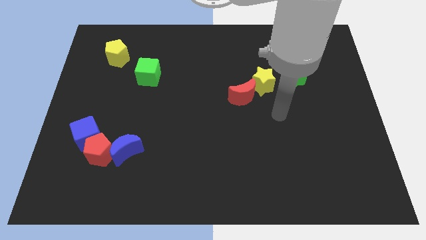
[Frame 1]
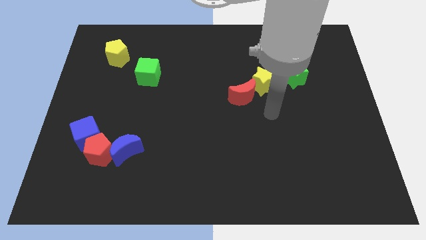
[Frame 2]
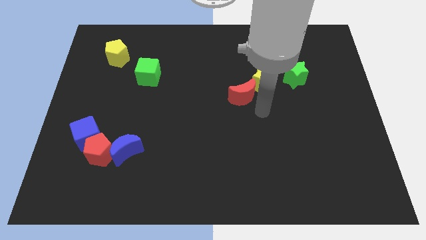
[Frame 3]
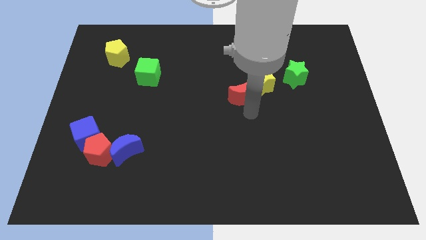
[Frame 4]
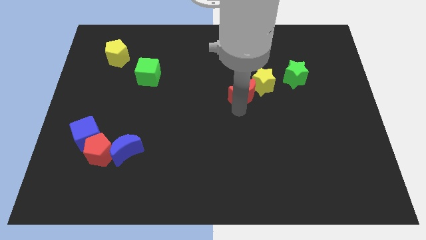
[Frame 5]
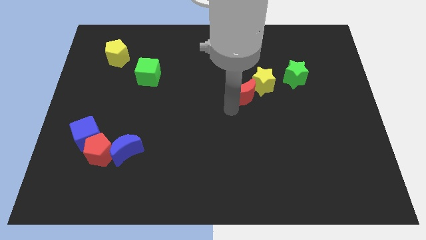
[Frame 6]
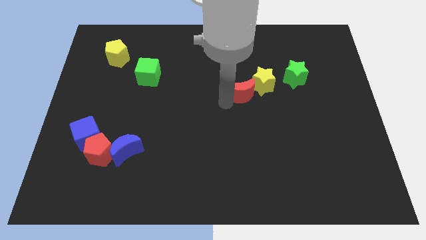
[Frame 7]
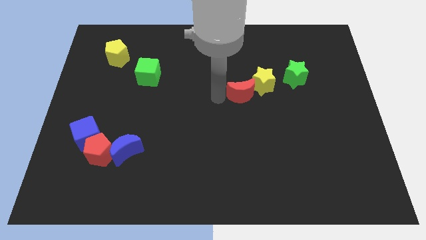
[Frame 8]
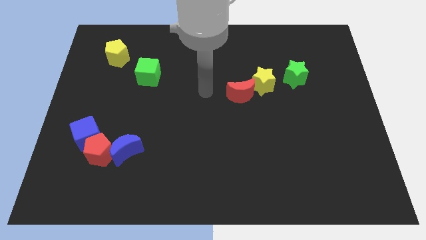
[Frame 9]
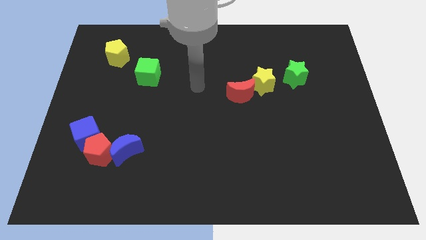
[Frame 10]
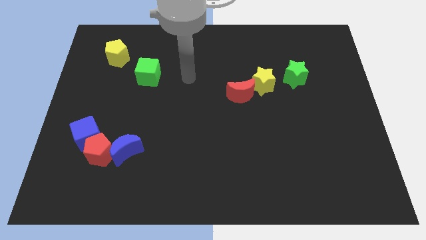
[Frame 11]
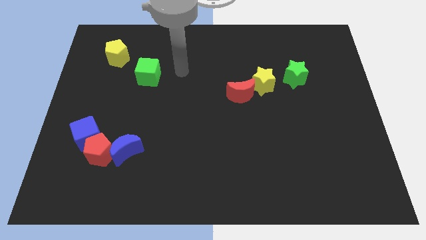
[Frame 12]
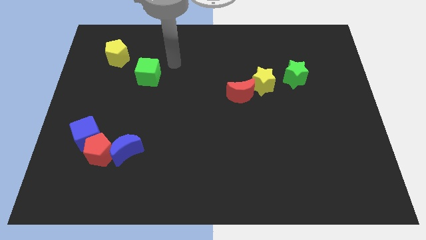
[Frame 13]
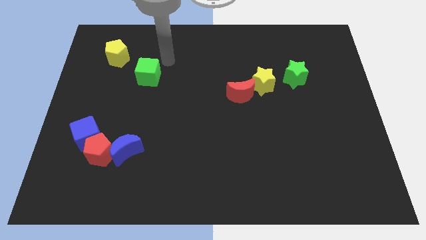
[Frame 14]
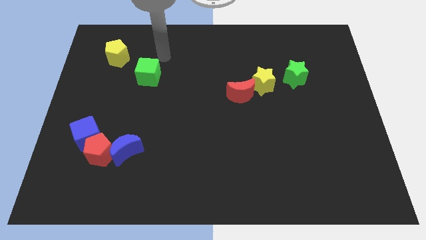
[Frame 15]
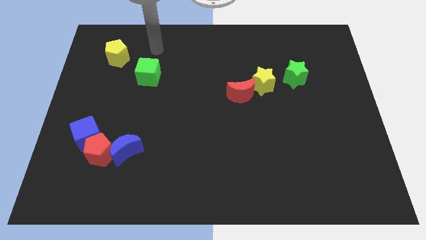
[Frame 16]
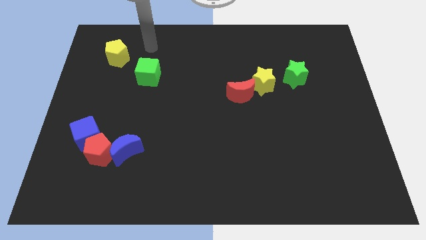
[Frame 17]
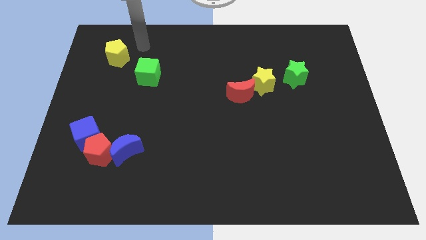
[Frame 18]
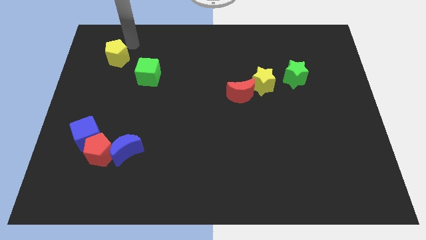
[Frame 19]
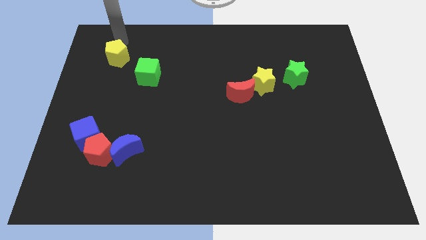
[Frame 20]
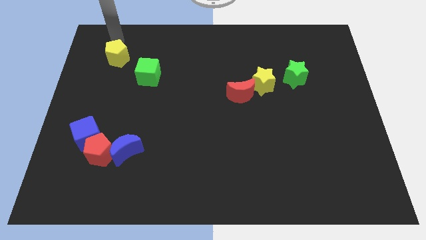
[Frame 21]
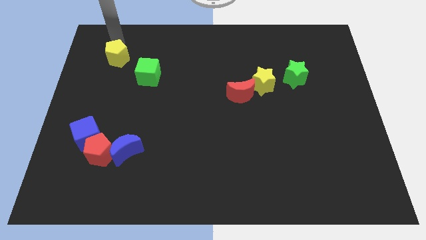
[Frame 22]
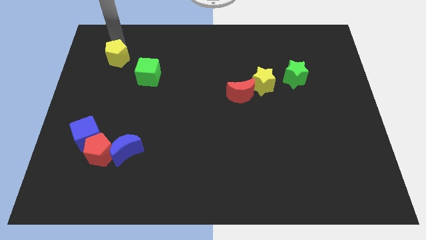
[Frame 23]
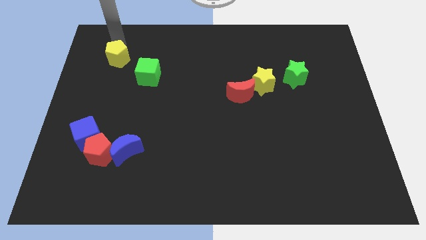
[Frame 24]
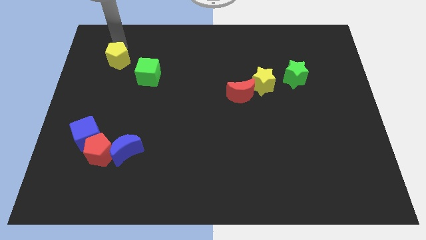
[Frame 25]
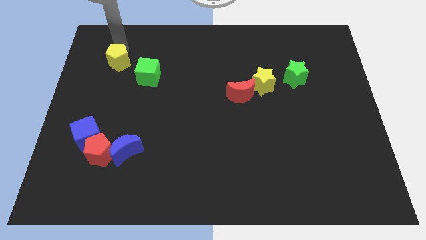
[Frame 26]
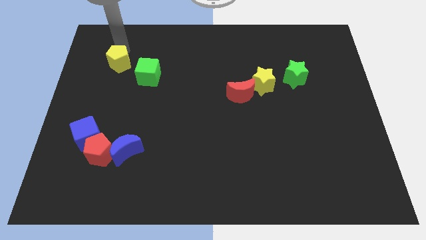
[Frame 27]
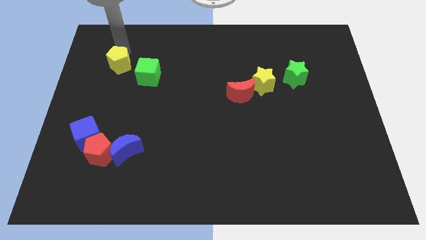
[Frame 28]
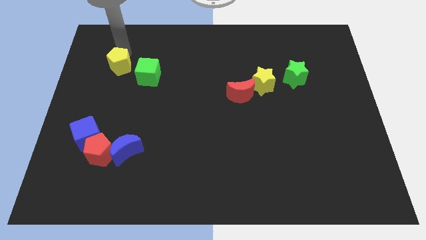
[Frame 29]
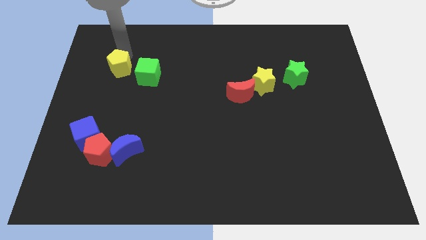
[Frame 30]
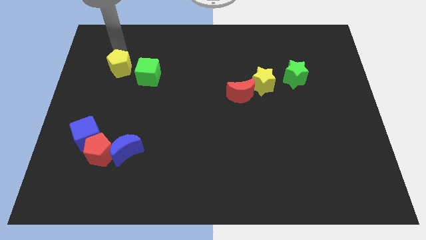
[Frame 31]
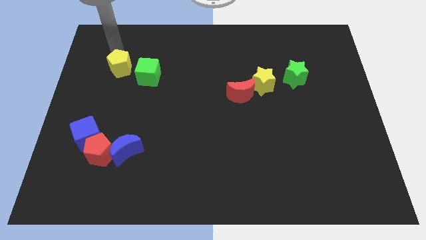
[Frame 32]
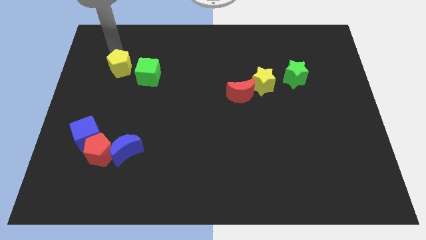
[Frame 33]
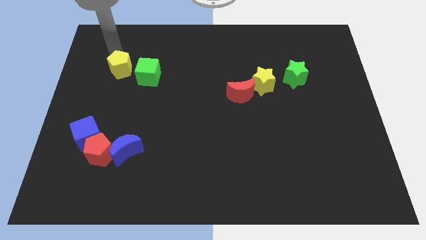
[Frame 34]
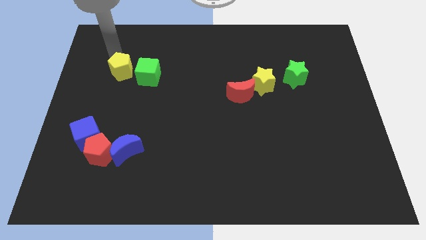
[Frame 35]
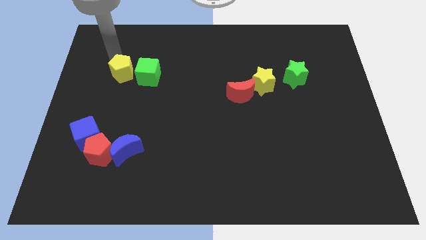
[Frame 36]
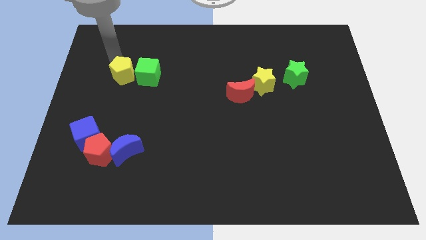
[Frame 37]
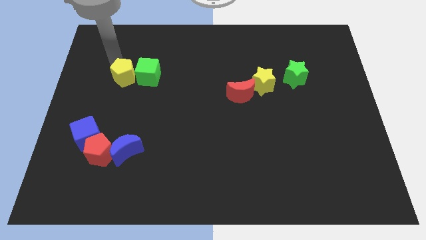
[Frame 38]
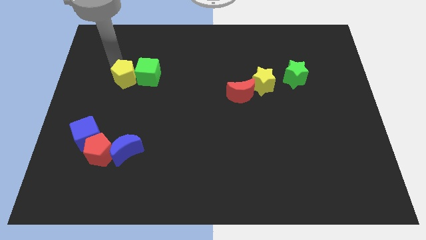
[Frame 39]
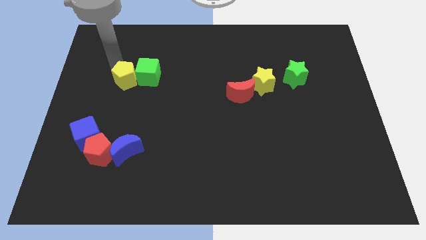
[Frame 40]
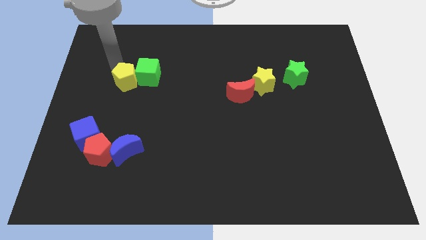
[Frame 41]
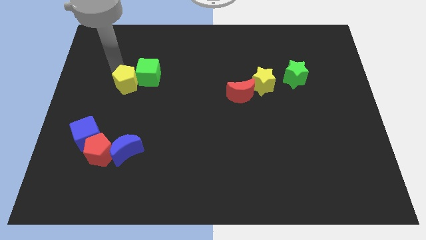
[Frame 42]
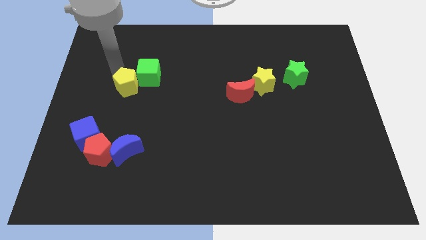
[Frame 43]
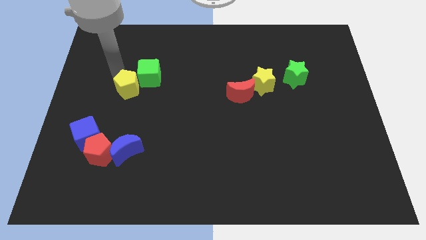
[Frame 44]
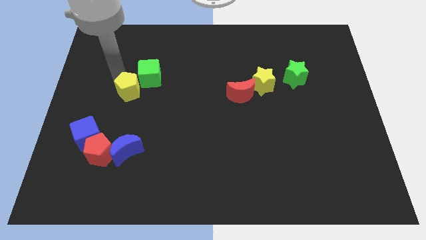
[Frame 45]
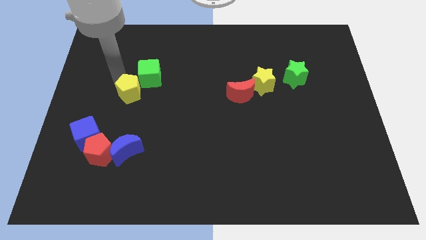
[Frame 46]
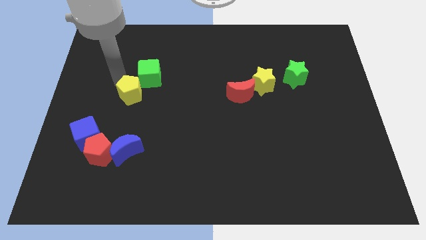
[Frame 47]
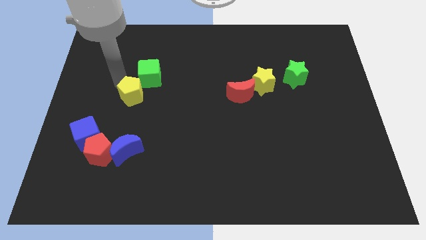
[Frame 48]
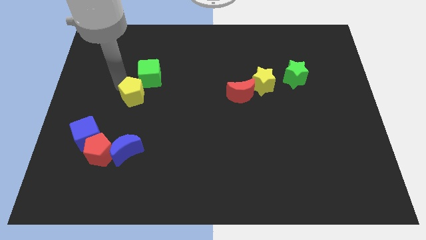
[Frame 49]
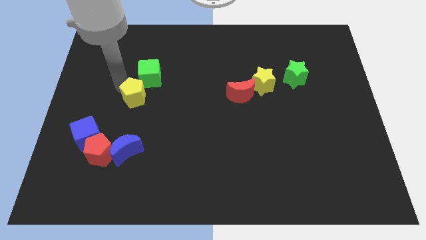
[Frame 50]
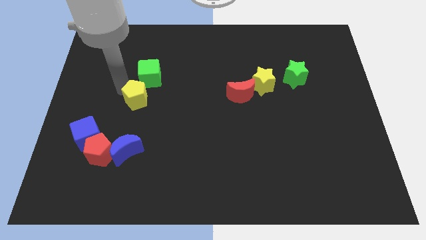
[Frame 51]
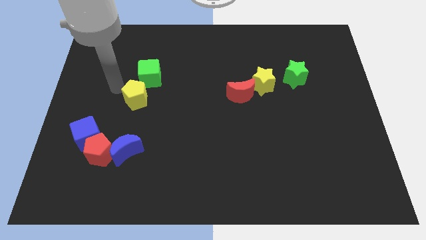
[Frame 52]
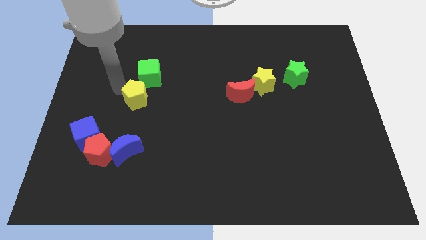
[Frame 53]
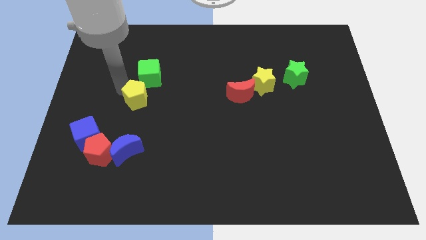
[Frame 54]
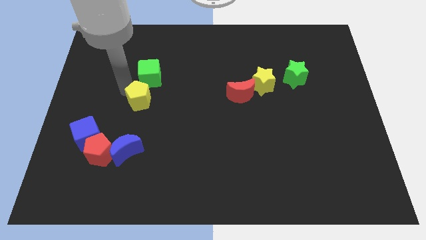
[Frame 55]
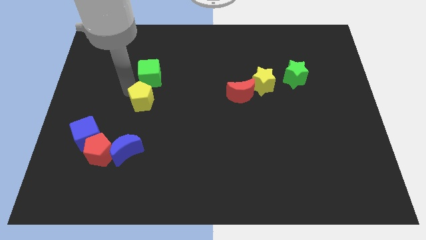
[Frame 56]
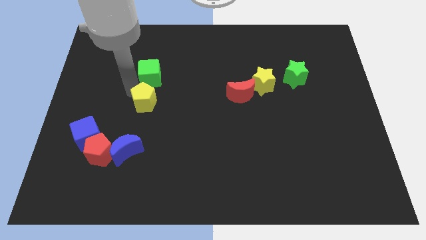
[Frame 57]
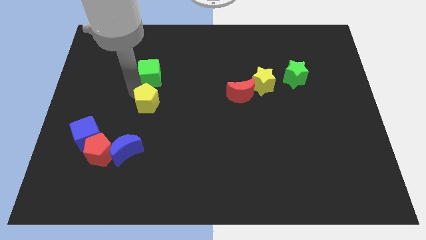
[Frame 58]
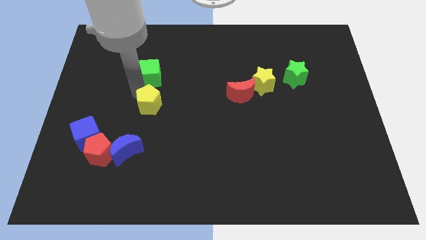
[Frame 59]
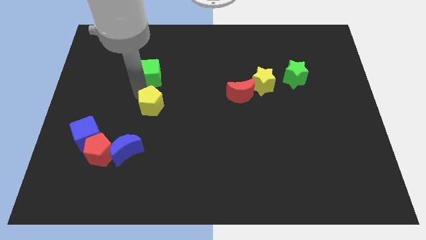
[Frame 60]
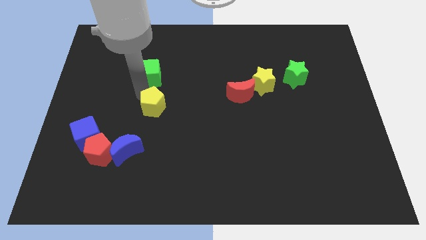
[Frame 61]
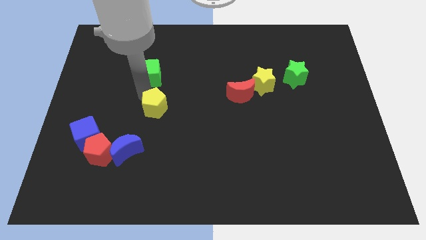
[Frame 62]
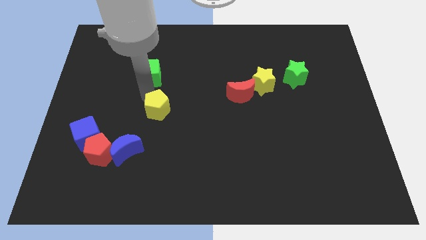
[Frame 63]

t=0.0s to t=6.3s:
slide the yellow pentagon diagonally down and right

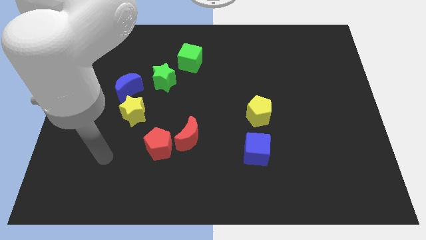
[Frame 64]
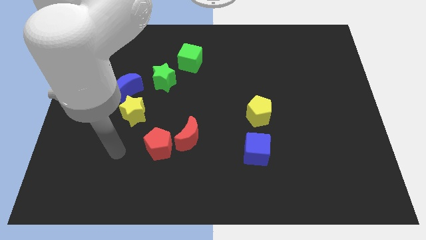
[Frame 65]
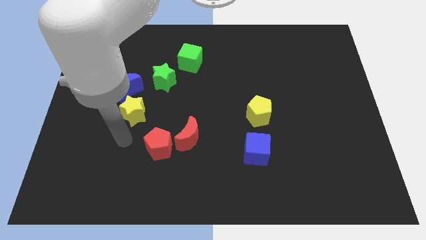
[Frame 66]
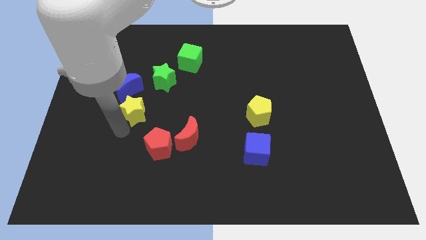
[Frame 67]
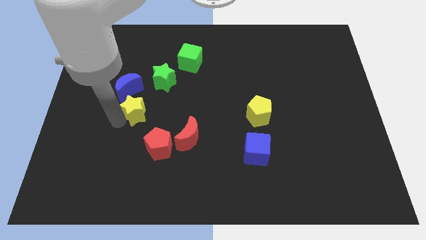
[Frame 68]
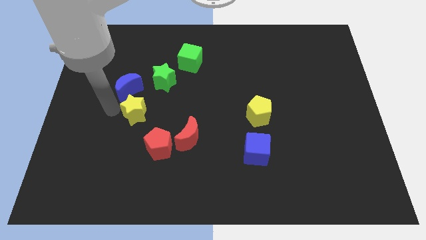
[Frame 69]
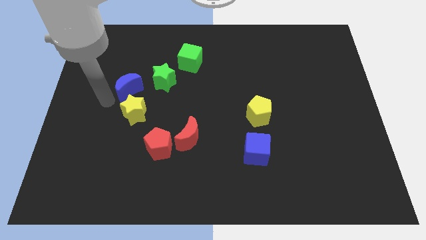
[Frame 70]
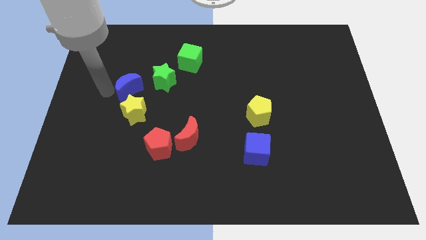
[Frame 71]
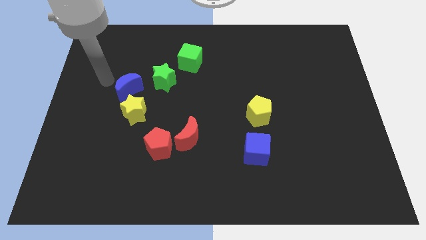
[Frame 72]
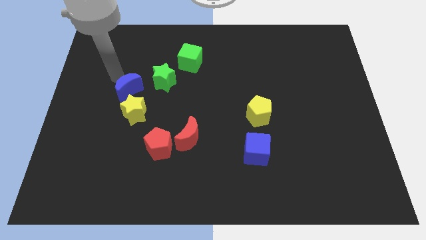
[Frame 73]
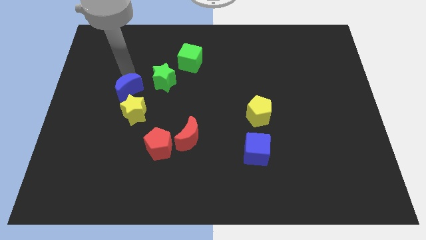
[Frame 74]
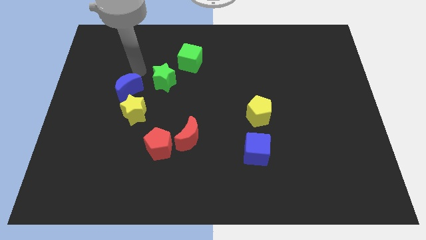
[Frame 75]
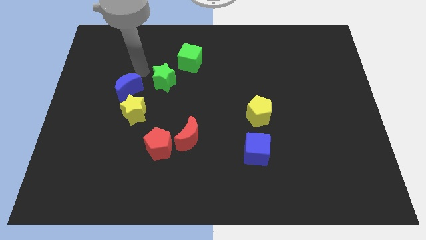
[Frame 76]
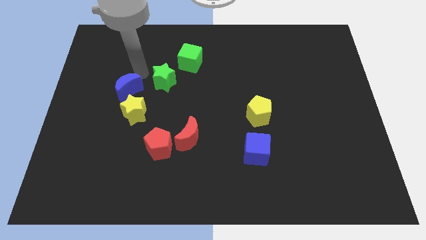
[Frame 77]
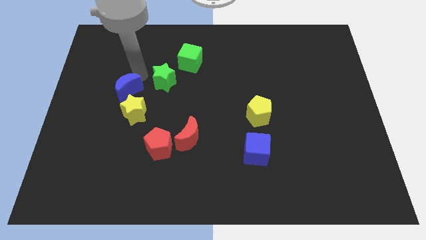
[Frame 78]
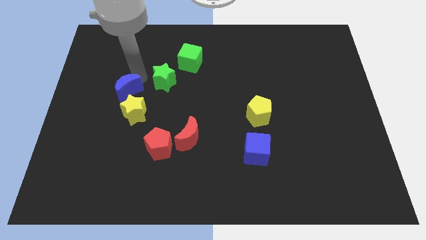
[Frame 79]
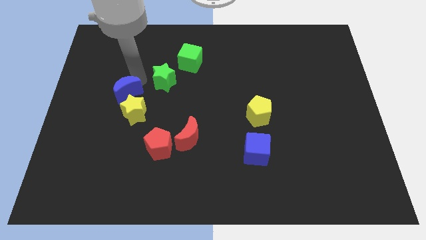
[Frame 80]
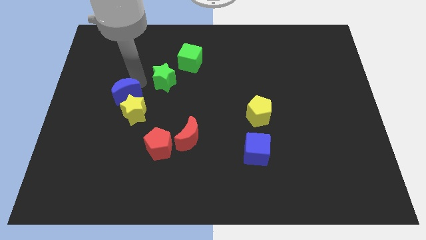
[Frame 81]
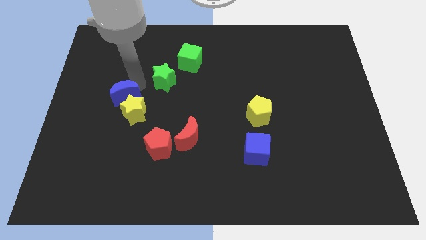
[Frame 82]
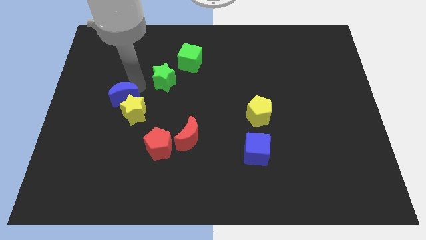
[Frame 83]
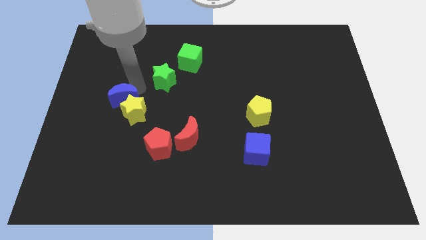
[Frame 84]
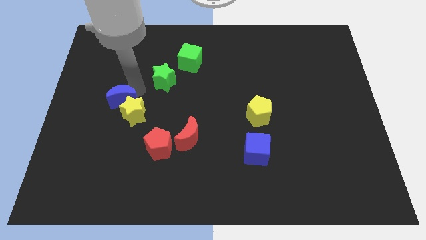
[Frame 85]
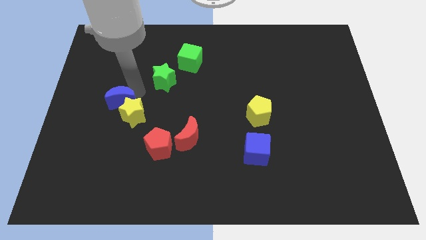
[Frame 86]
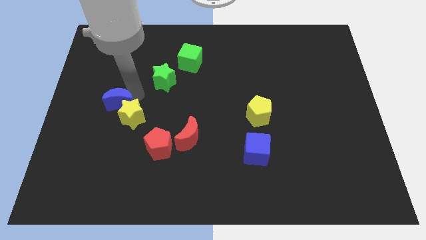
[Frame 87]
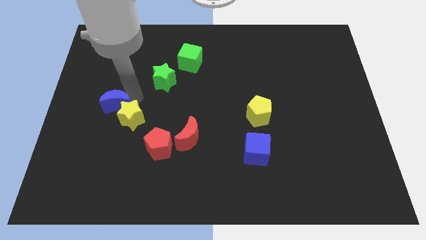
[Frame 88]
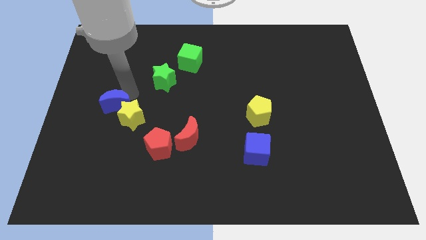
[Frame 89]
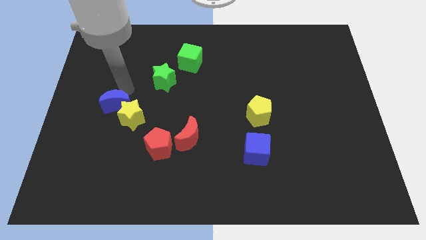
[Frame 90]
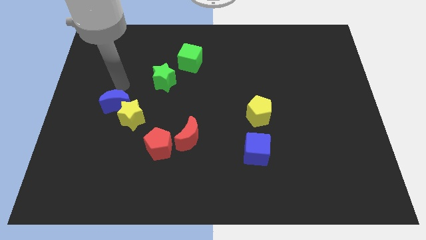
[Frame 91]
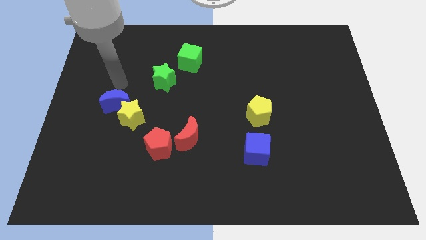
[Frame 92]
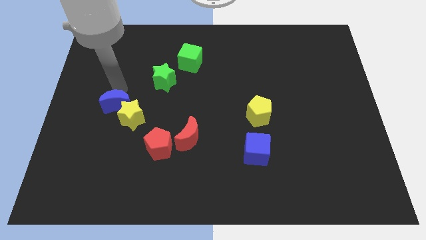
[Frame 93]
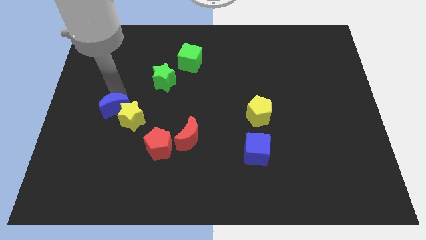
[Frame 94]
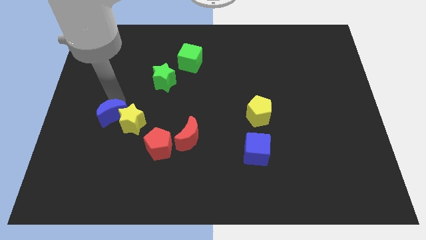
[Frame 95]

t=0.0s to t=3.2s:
slide the blue moon somewhat downwards
